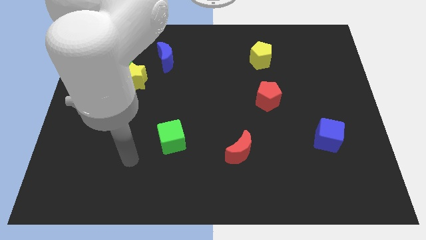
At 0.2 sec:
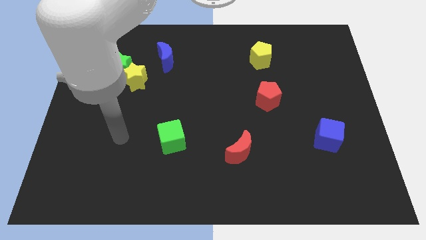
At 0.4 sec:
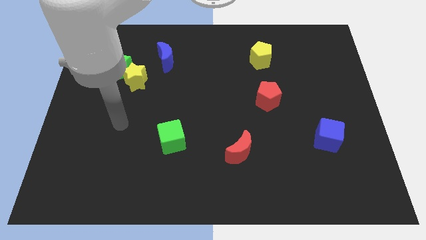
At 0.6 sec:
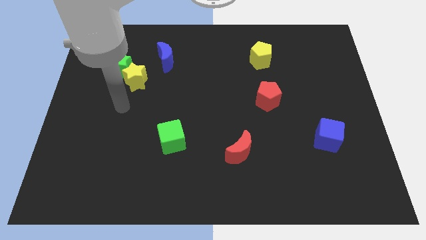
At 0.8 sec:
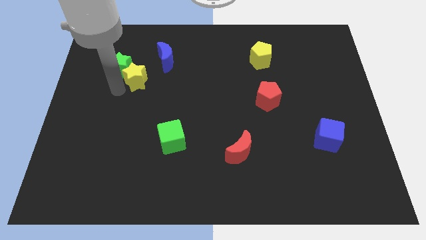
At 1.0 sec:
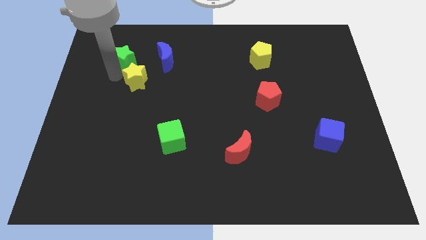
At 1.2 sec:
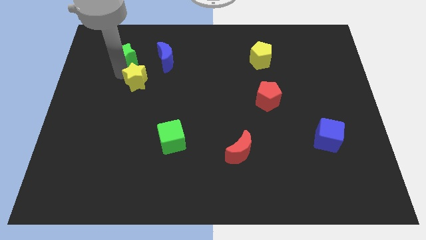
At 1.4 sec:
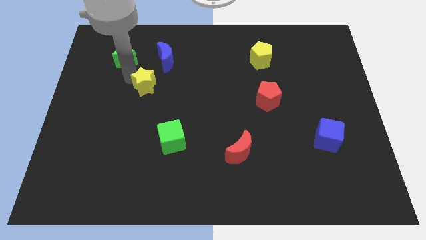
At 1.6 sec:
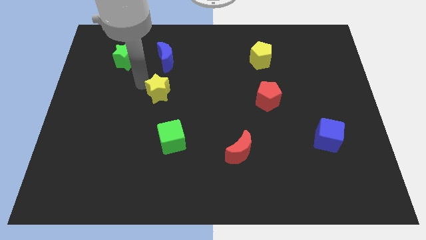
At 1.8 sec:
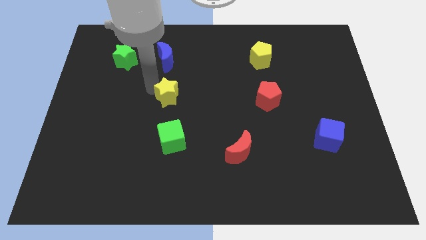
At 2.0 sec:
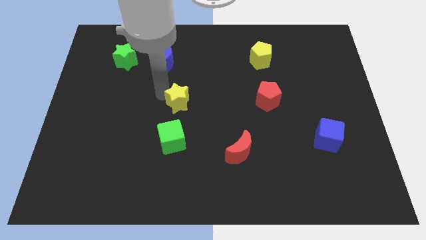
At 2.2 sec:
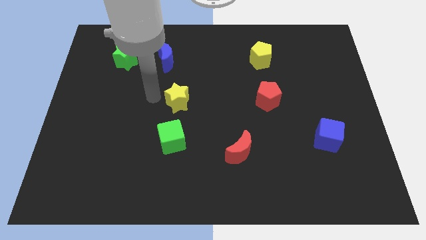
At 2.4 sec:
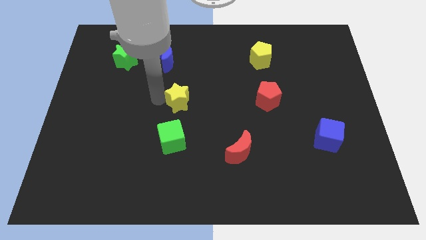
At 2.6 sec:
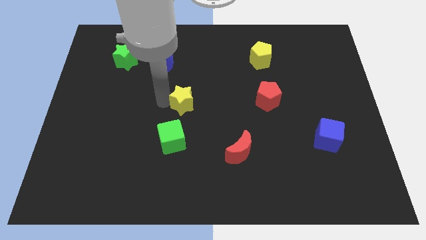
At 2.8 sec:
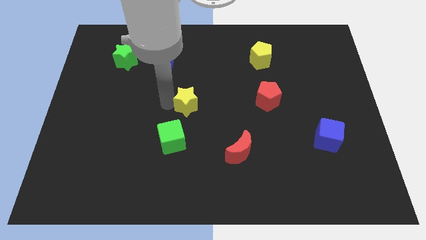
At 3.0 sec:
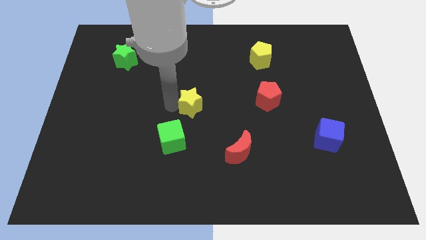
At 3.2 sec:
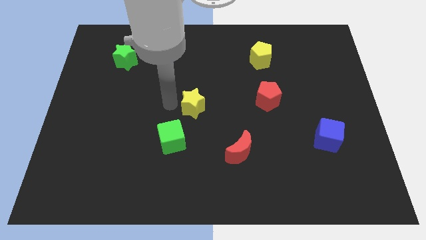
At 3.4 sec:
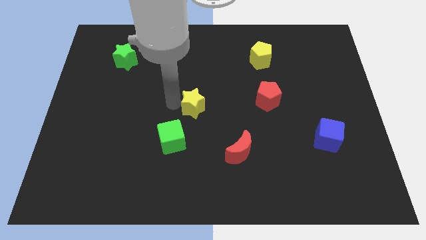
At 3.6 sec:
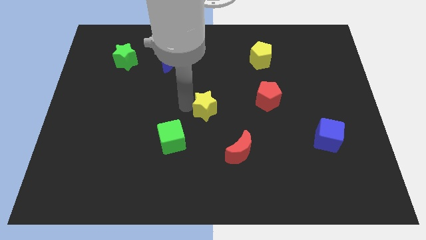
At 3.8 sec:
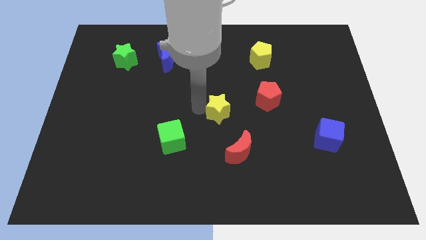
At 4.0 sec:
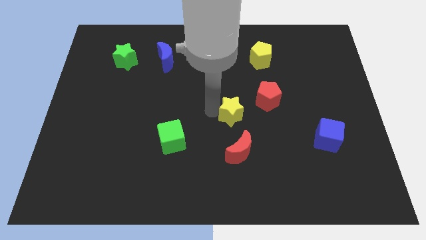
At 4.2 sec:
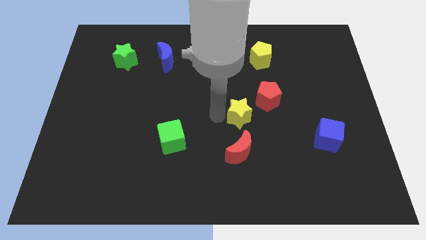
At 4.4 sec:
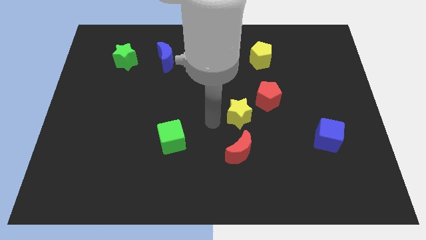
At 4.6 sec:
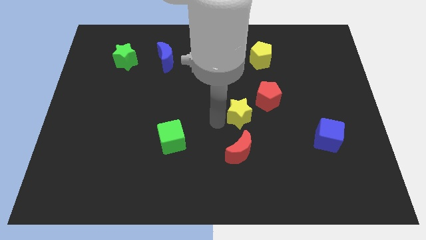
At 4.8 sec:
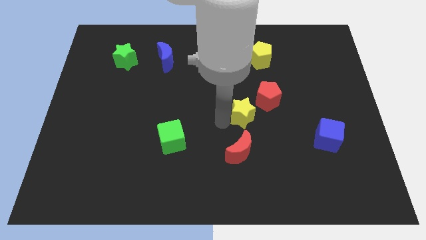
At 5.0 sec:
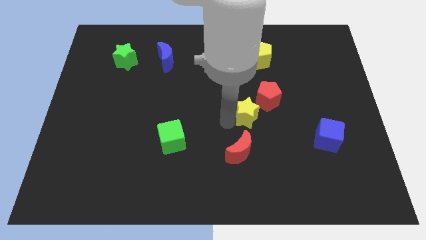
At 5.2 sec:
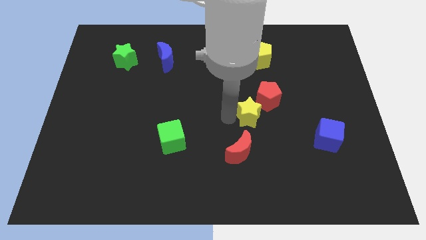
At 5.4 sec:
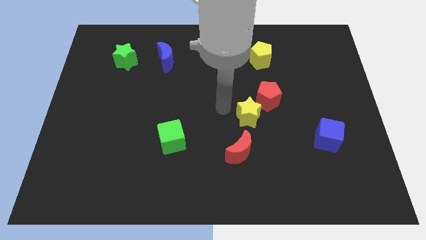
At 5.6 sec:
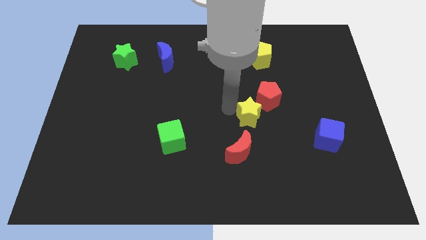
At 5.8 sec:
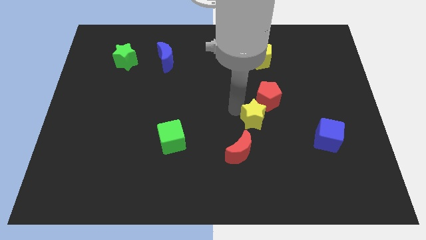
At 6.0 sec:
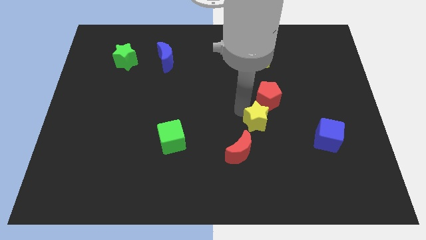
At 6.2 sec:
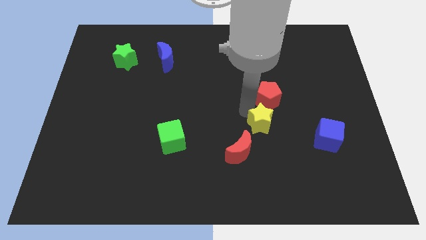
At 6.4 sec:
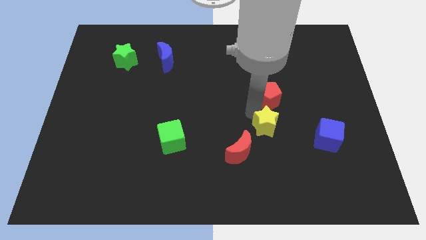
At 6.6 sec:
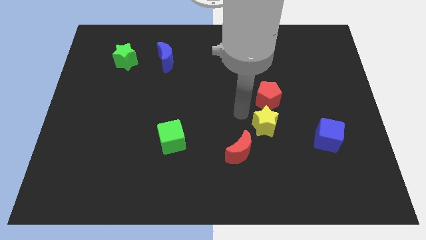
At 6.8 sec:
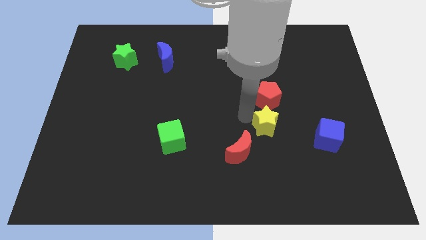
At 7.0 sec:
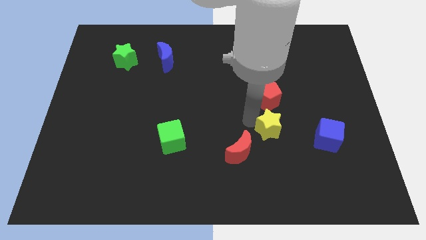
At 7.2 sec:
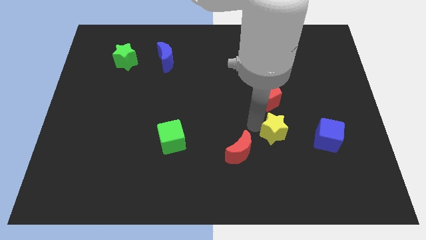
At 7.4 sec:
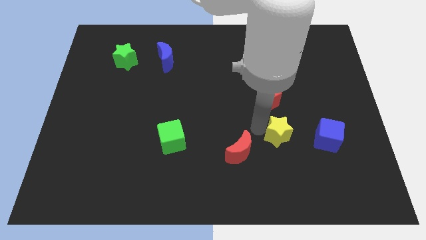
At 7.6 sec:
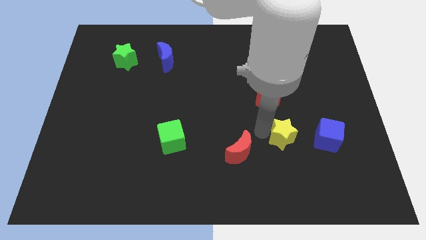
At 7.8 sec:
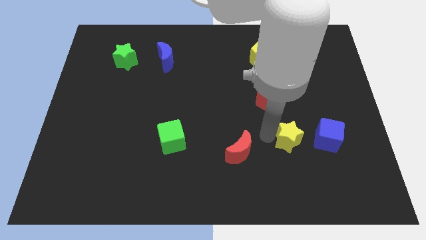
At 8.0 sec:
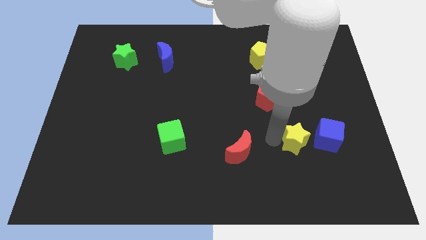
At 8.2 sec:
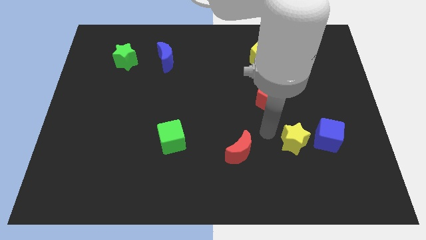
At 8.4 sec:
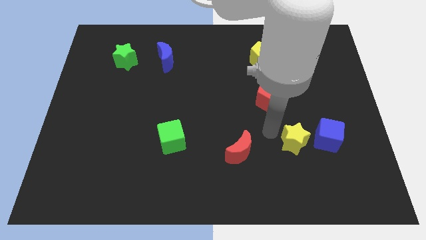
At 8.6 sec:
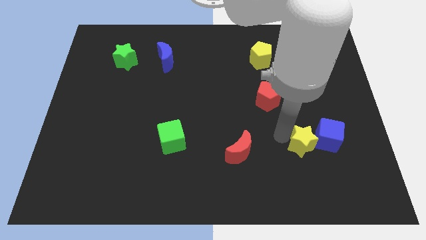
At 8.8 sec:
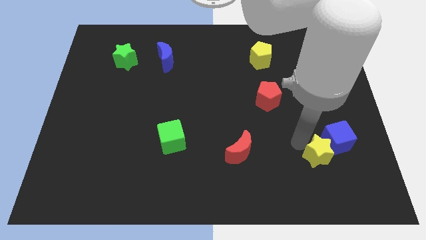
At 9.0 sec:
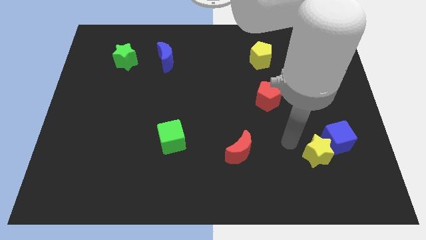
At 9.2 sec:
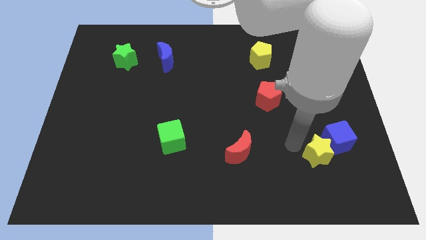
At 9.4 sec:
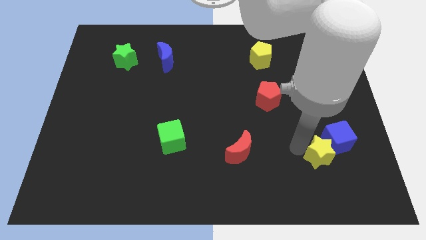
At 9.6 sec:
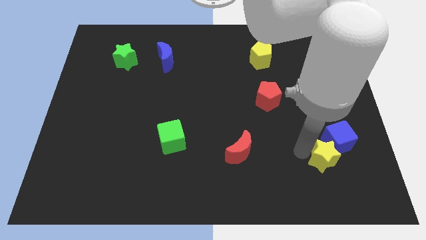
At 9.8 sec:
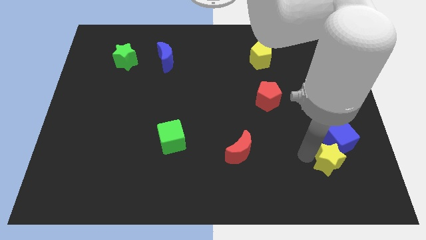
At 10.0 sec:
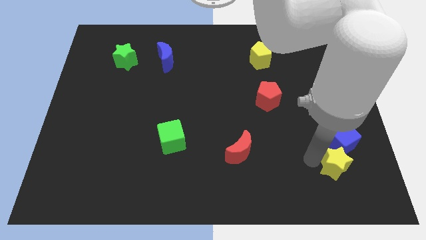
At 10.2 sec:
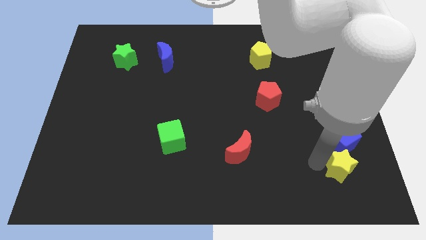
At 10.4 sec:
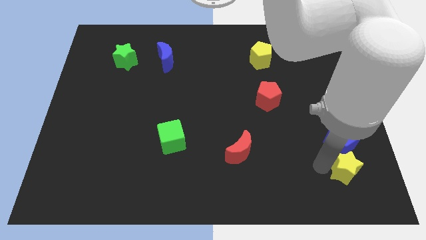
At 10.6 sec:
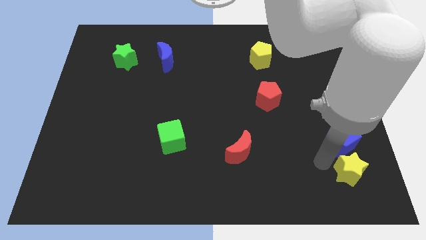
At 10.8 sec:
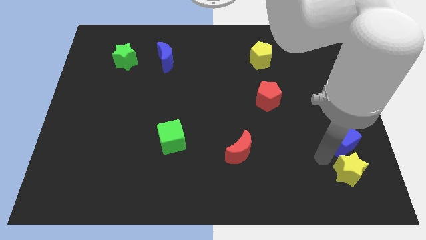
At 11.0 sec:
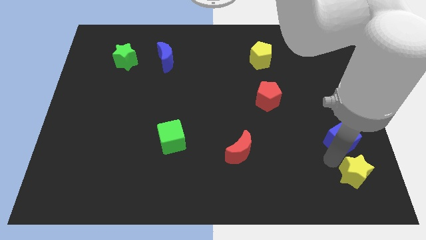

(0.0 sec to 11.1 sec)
push the yellow star to the bottom right
